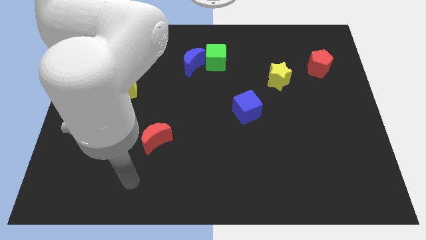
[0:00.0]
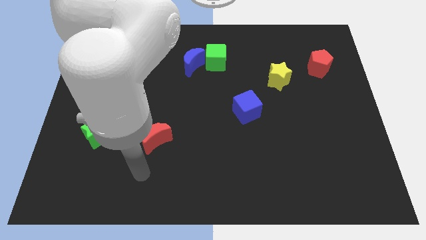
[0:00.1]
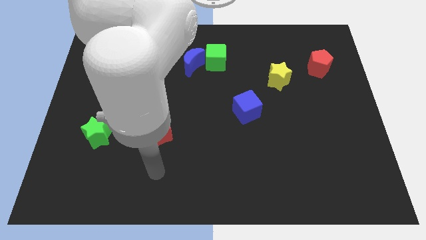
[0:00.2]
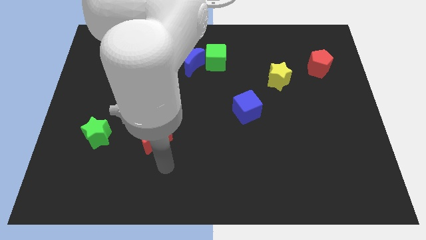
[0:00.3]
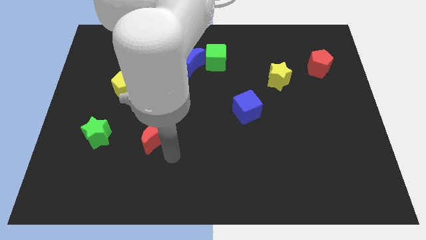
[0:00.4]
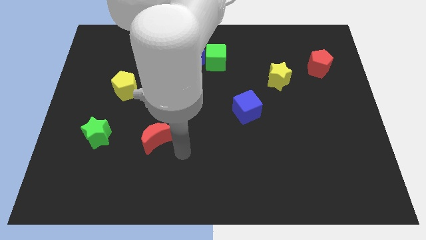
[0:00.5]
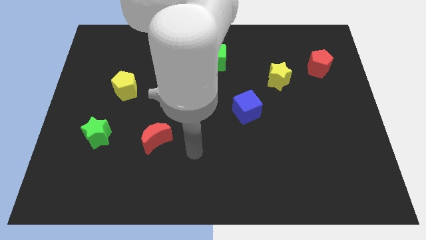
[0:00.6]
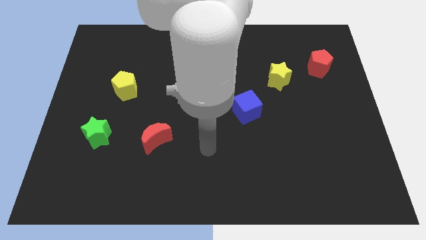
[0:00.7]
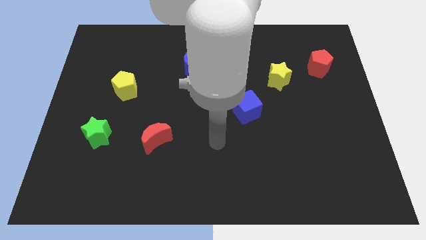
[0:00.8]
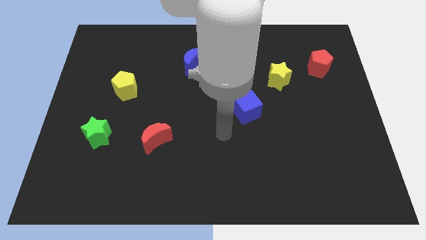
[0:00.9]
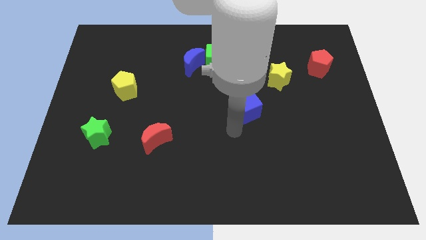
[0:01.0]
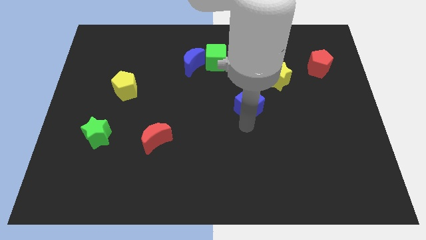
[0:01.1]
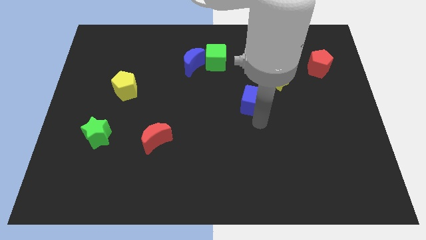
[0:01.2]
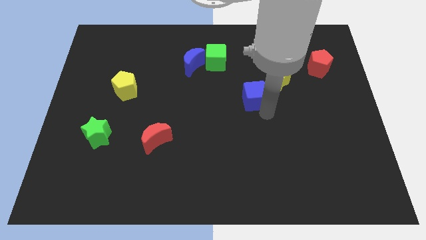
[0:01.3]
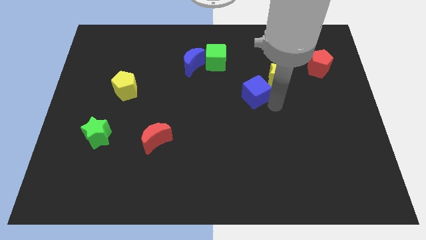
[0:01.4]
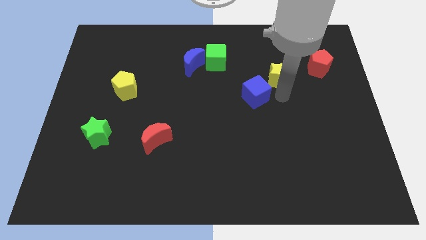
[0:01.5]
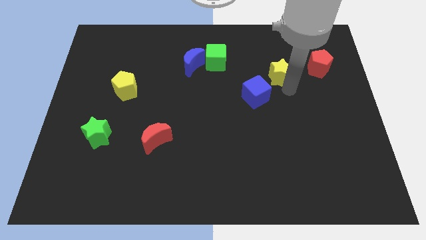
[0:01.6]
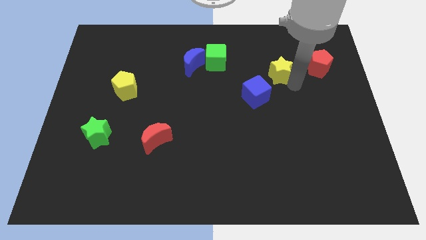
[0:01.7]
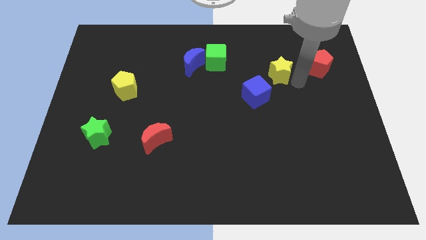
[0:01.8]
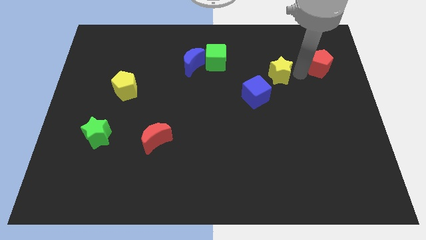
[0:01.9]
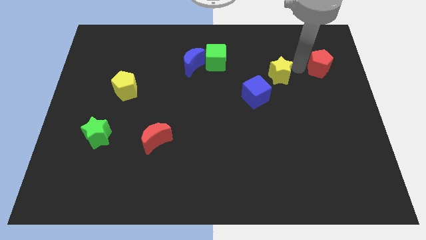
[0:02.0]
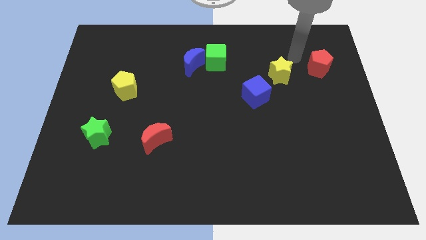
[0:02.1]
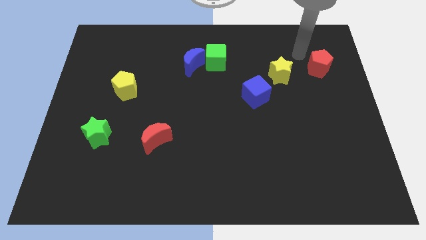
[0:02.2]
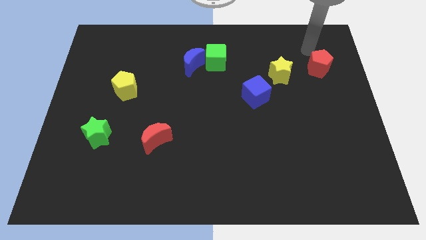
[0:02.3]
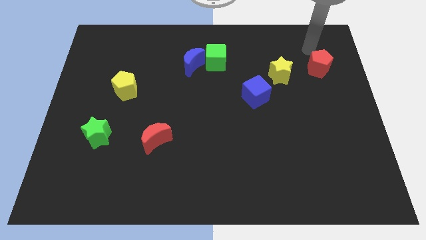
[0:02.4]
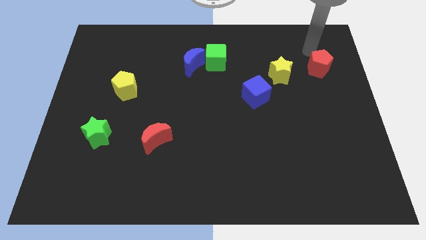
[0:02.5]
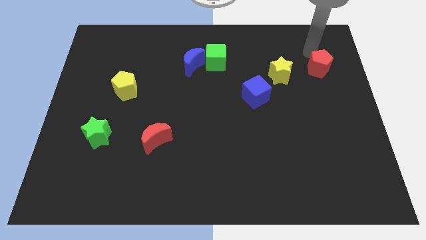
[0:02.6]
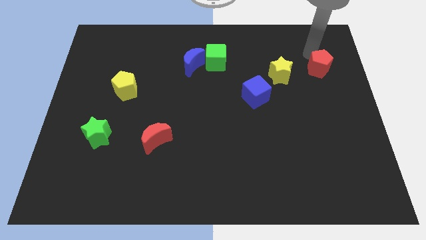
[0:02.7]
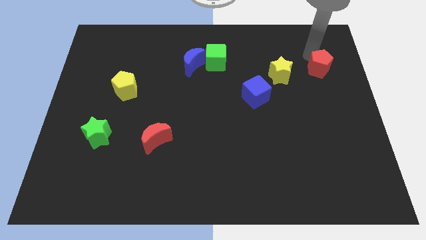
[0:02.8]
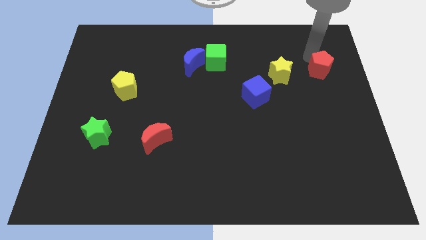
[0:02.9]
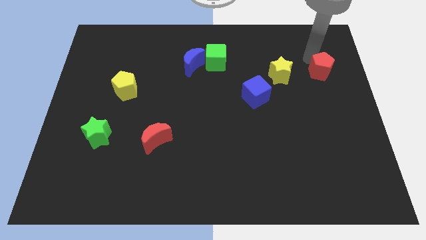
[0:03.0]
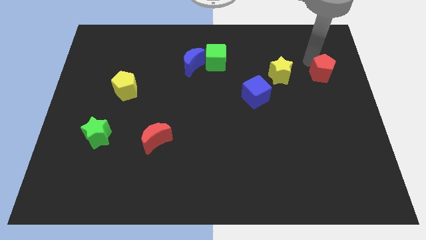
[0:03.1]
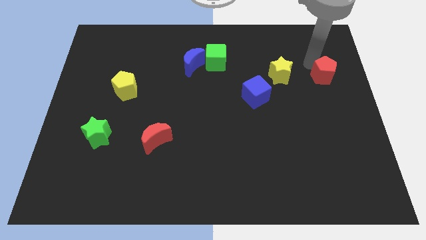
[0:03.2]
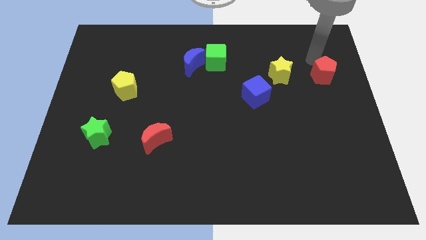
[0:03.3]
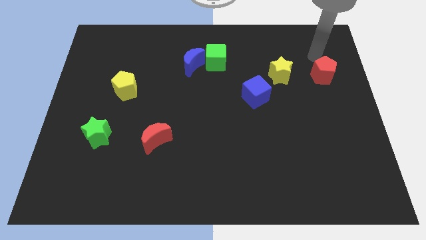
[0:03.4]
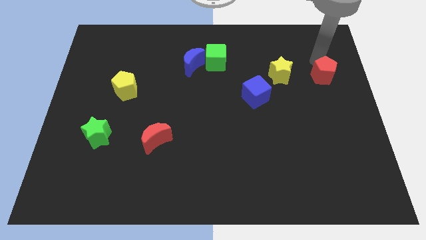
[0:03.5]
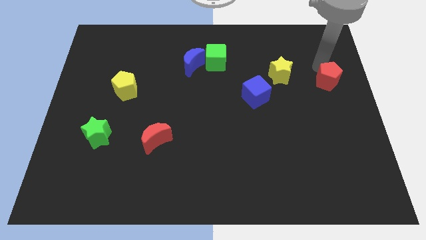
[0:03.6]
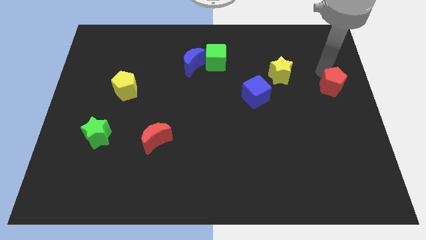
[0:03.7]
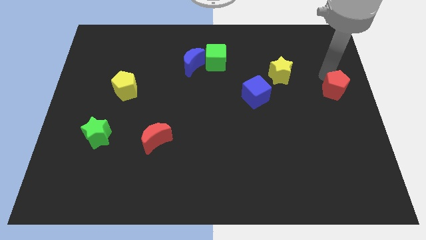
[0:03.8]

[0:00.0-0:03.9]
move the red pentagon slightly down

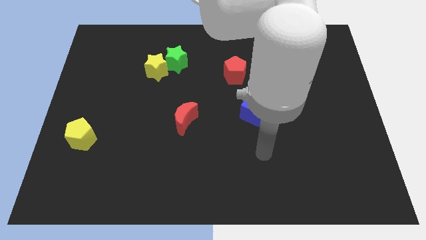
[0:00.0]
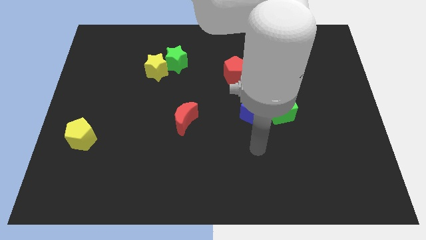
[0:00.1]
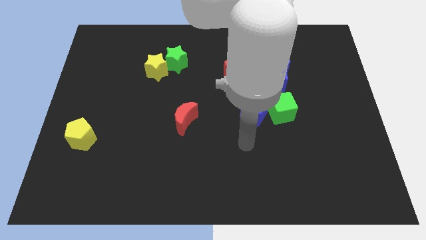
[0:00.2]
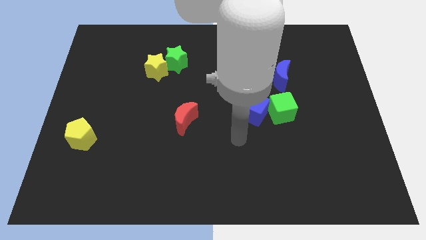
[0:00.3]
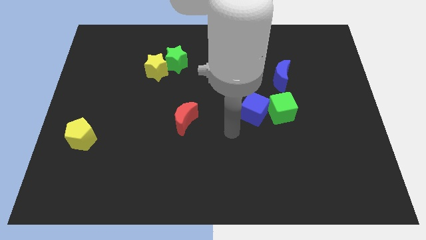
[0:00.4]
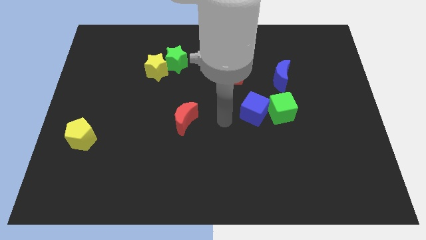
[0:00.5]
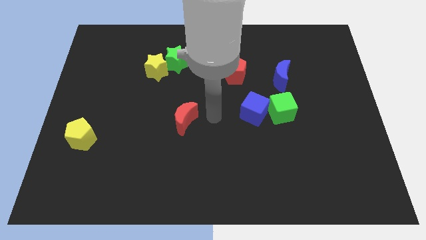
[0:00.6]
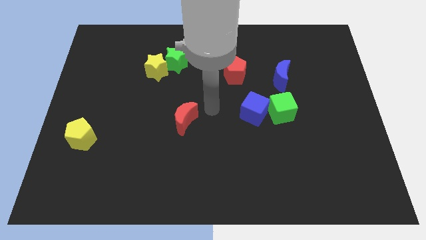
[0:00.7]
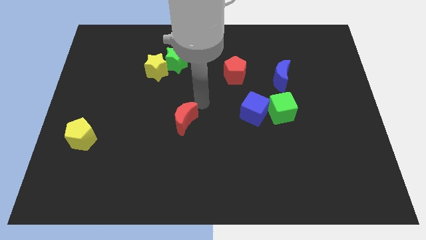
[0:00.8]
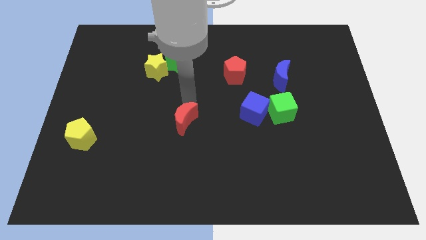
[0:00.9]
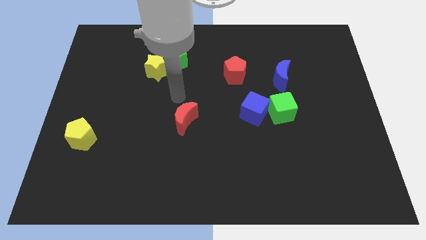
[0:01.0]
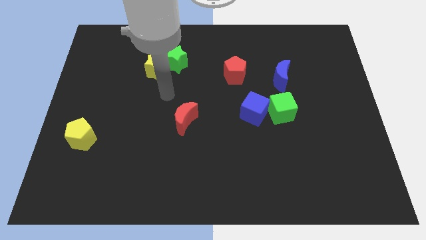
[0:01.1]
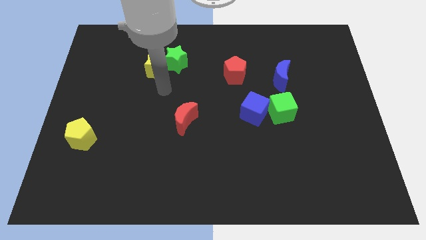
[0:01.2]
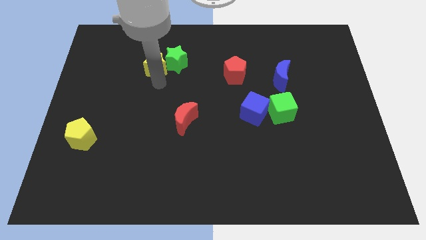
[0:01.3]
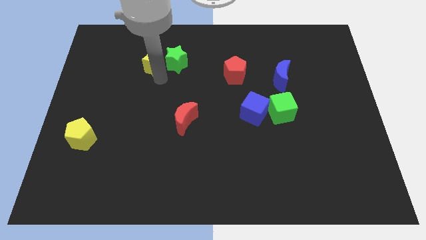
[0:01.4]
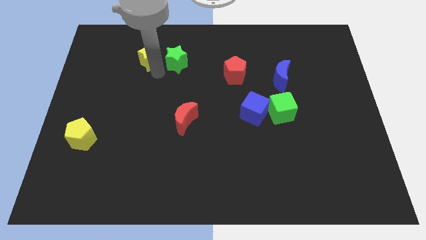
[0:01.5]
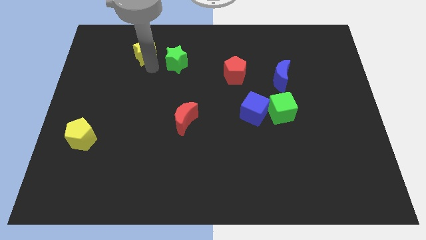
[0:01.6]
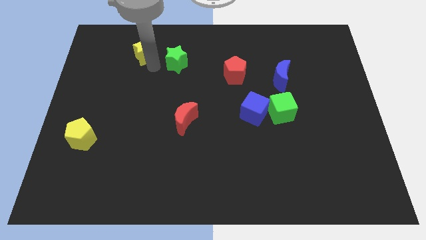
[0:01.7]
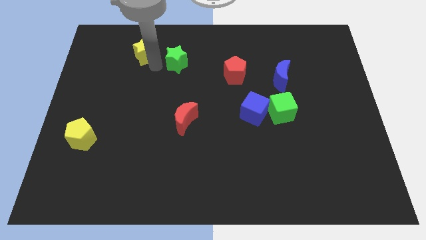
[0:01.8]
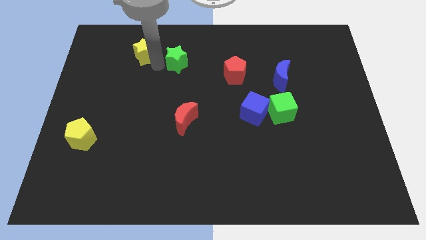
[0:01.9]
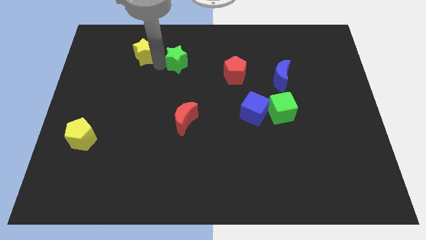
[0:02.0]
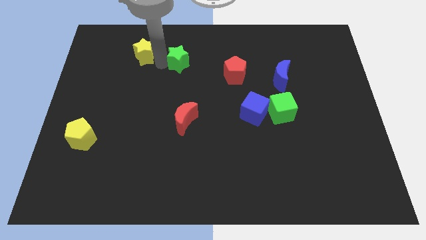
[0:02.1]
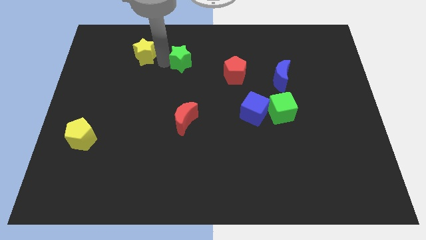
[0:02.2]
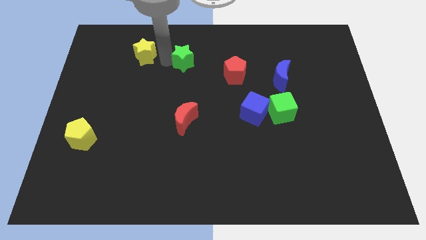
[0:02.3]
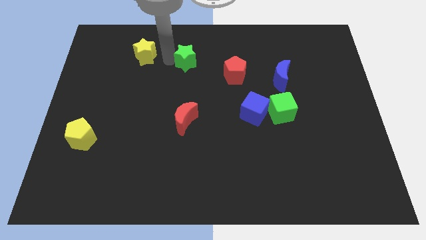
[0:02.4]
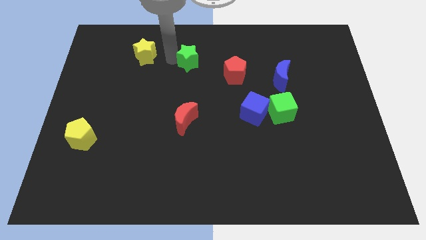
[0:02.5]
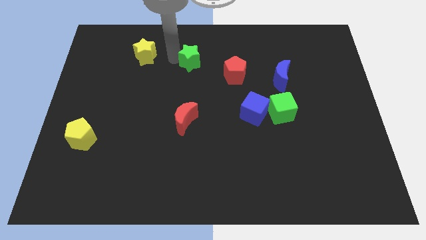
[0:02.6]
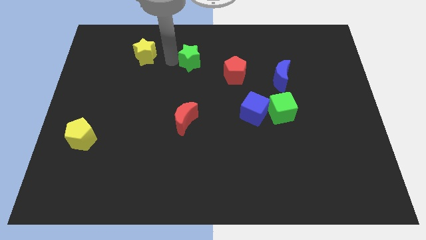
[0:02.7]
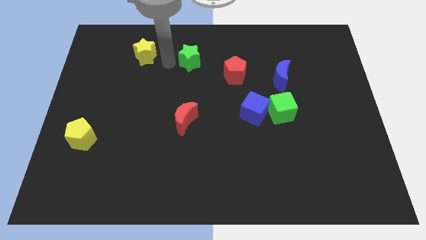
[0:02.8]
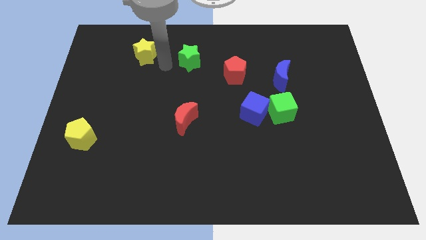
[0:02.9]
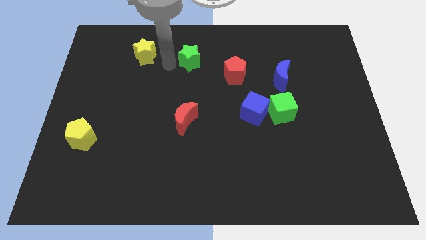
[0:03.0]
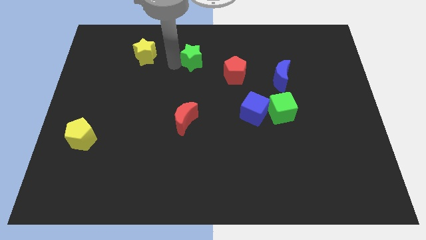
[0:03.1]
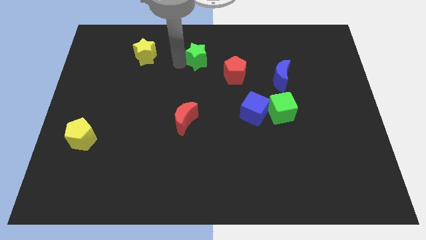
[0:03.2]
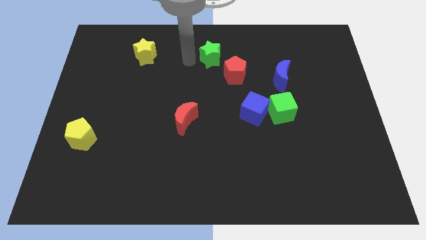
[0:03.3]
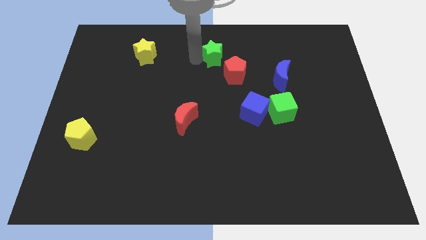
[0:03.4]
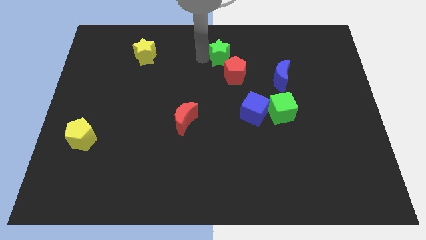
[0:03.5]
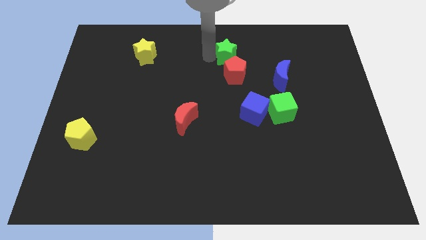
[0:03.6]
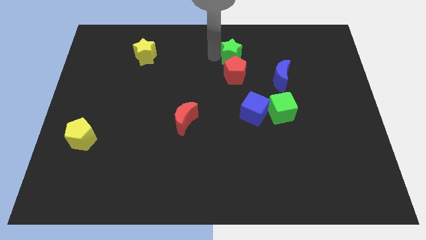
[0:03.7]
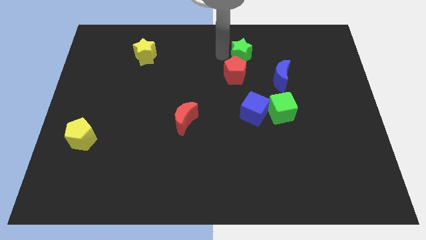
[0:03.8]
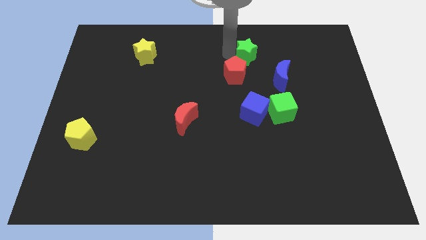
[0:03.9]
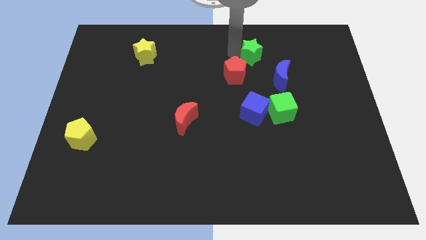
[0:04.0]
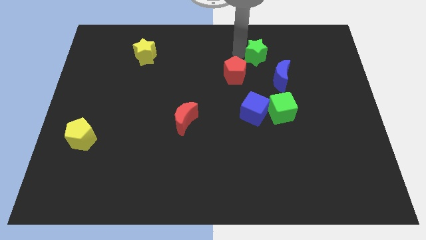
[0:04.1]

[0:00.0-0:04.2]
move the green star to the right
